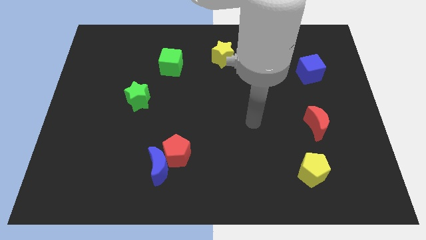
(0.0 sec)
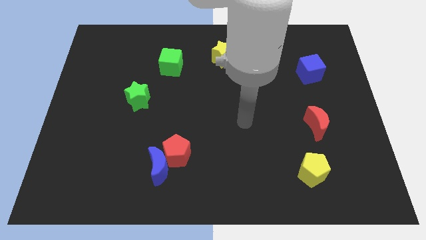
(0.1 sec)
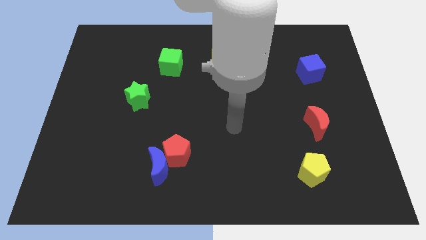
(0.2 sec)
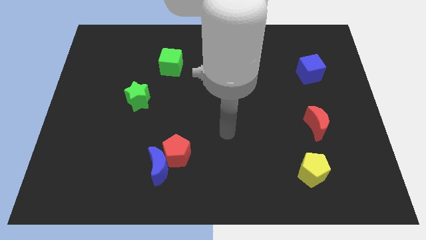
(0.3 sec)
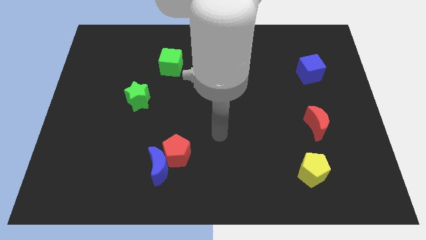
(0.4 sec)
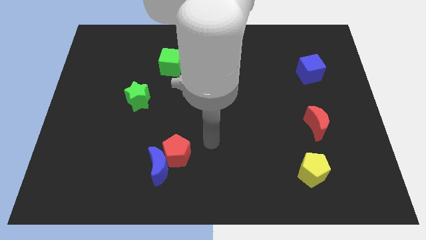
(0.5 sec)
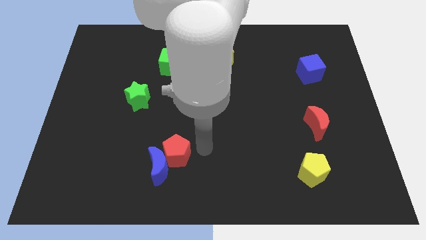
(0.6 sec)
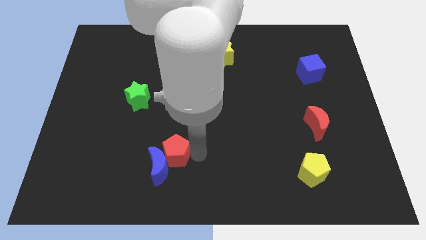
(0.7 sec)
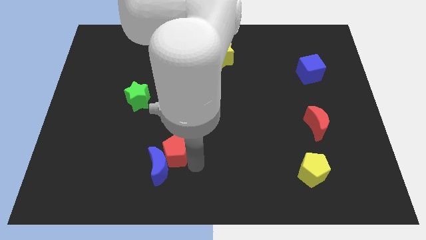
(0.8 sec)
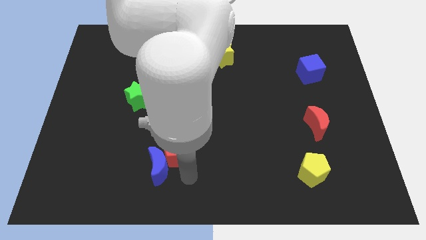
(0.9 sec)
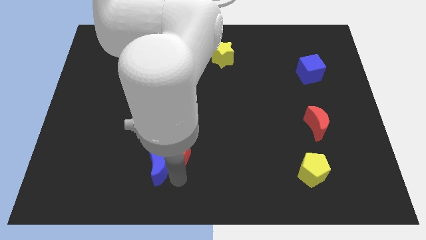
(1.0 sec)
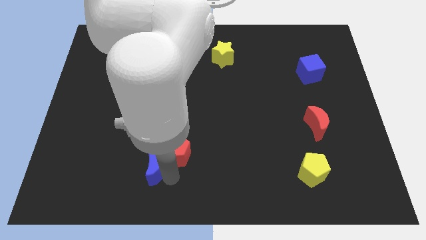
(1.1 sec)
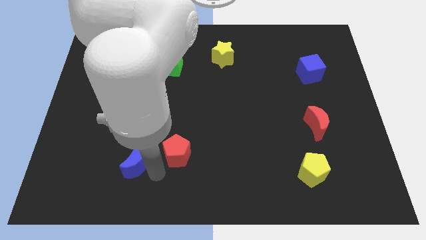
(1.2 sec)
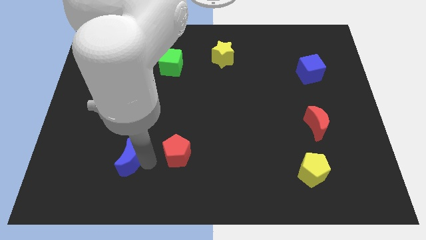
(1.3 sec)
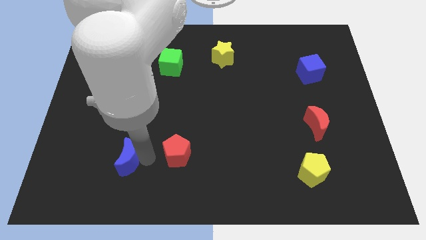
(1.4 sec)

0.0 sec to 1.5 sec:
pull the red pentagon apart from the blue moon

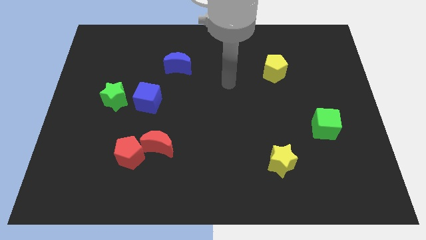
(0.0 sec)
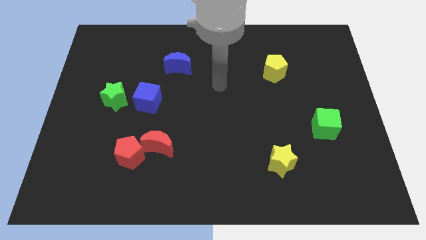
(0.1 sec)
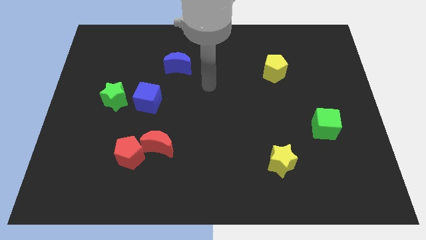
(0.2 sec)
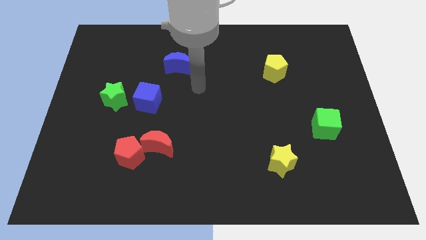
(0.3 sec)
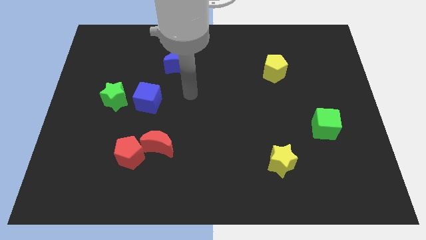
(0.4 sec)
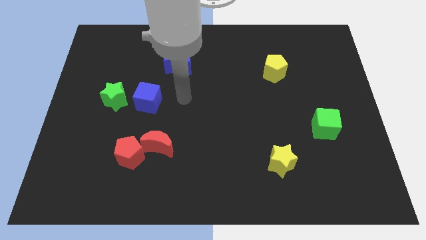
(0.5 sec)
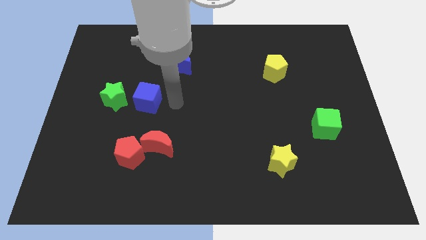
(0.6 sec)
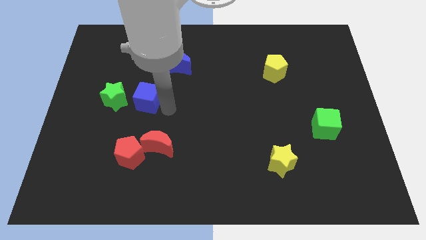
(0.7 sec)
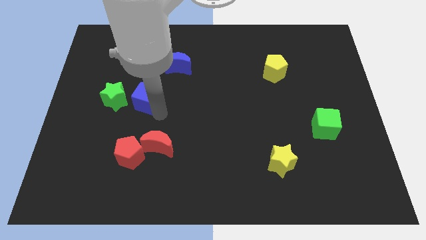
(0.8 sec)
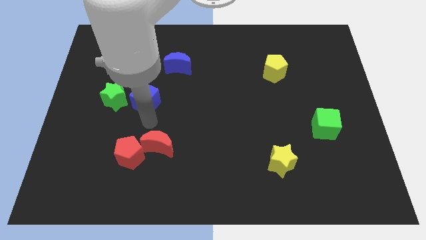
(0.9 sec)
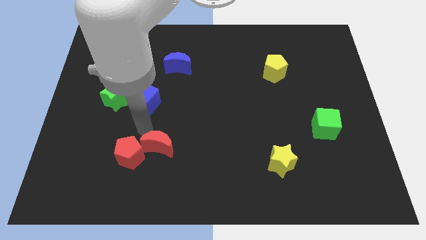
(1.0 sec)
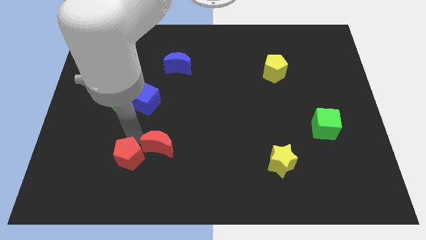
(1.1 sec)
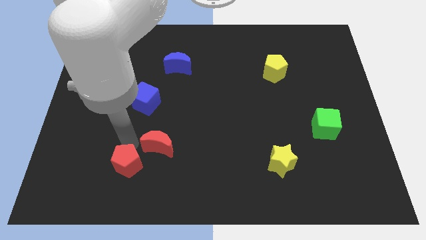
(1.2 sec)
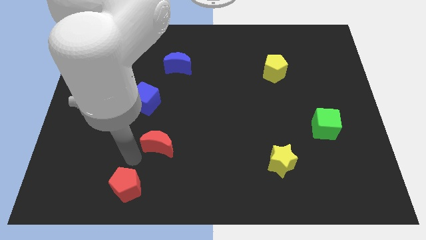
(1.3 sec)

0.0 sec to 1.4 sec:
move the red moon away from the red pentagon

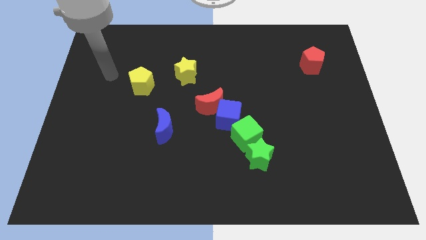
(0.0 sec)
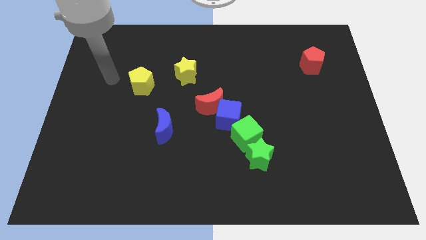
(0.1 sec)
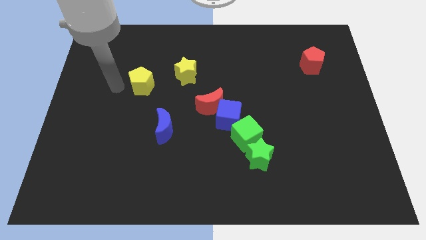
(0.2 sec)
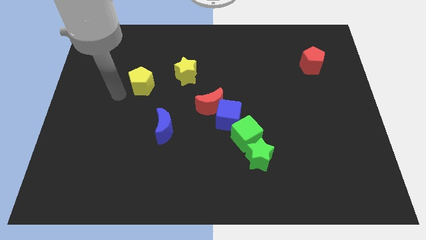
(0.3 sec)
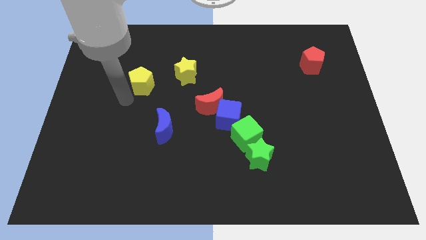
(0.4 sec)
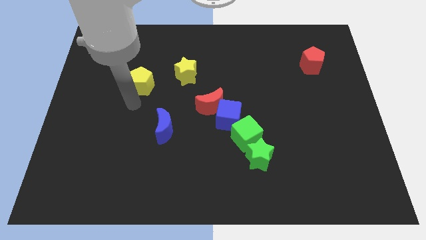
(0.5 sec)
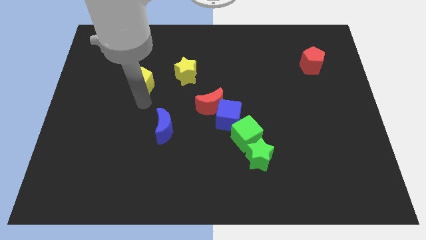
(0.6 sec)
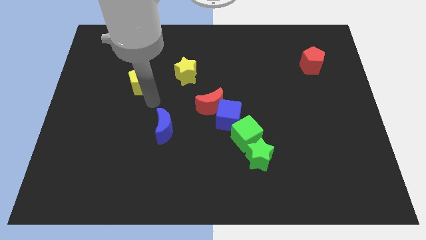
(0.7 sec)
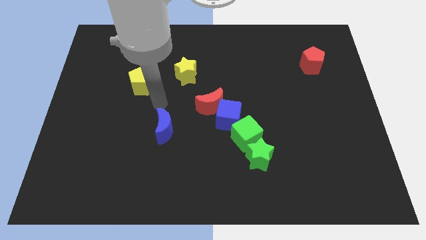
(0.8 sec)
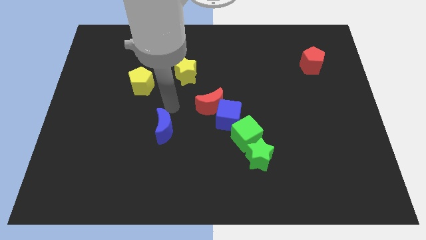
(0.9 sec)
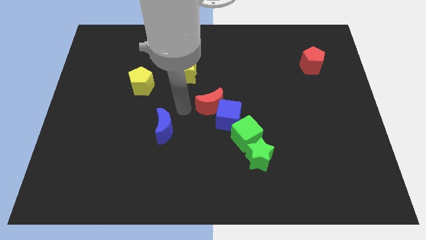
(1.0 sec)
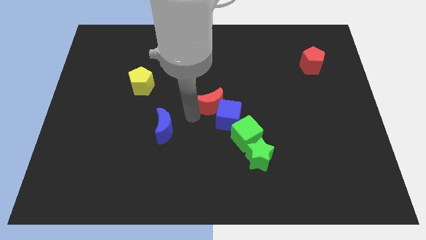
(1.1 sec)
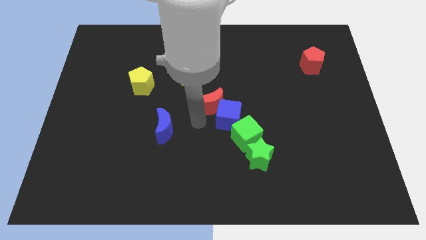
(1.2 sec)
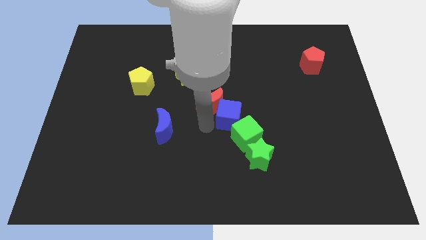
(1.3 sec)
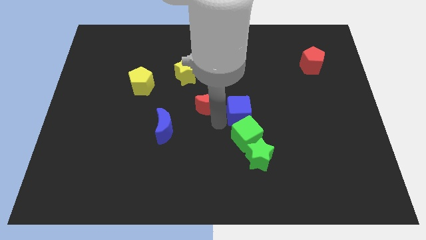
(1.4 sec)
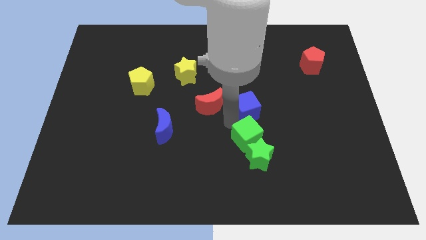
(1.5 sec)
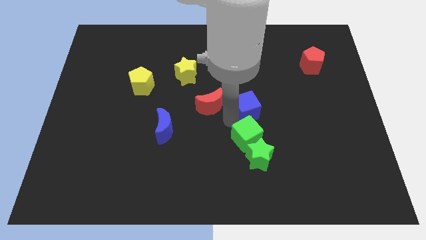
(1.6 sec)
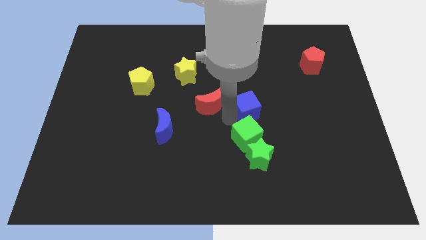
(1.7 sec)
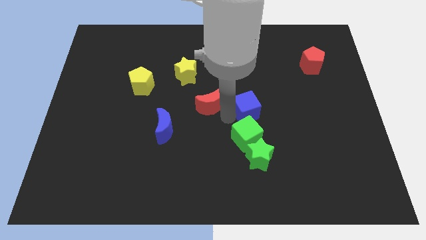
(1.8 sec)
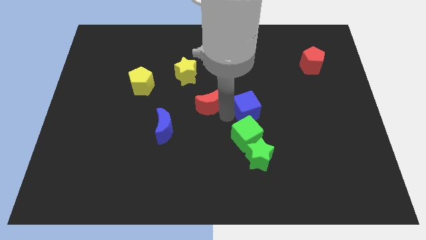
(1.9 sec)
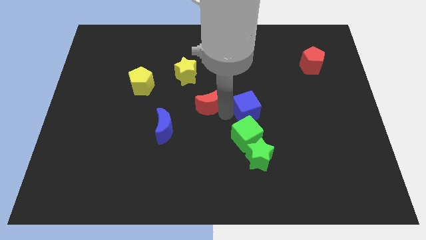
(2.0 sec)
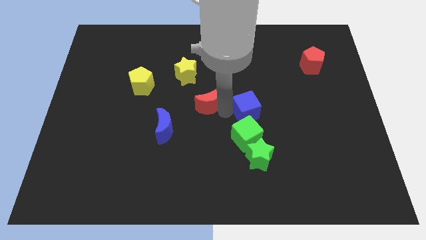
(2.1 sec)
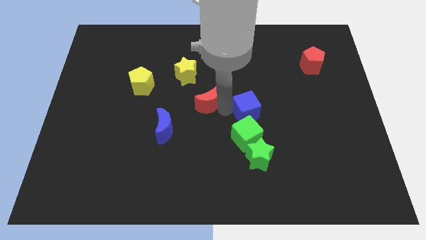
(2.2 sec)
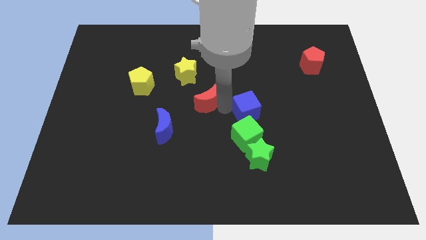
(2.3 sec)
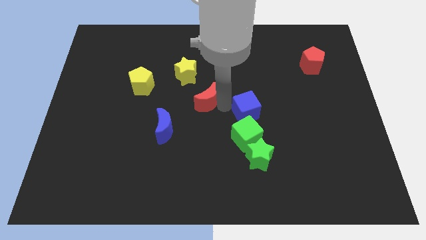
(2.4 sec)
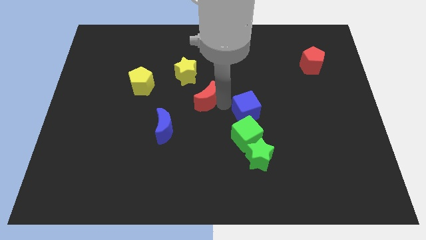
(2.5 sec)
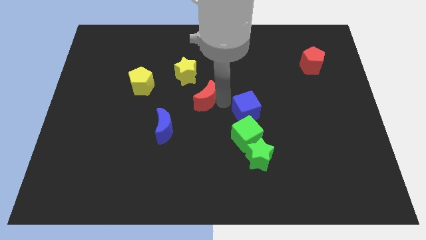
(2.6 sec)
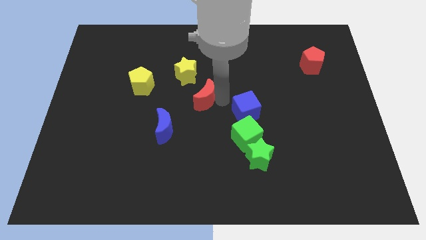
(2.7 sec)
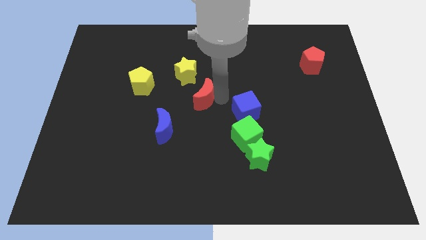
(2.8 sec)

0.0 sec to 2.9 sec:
move the red moon away from the blue cube

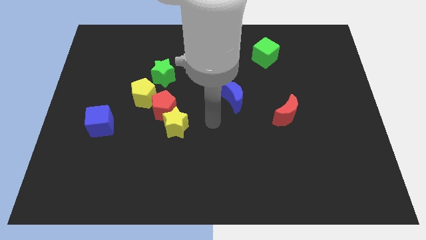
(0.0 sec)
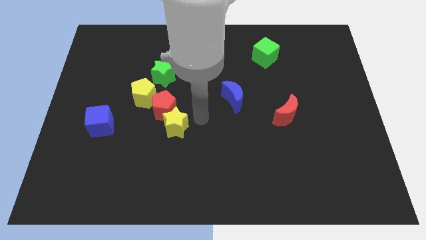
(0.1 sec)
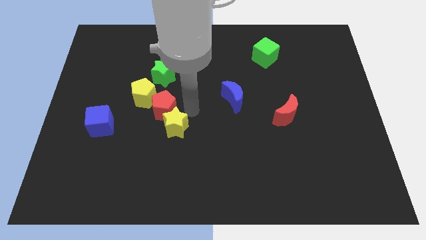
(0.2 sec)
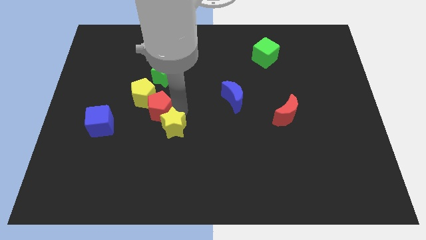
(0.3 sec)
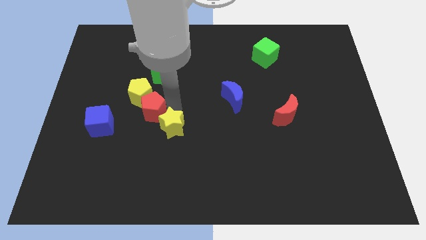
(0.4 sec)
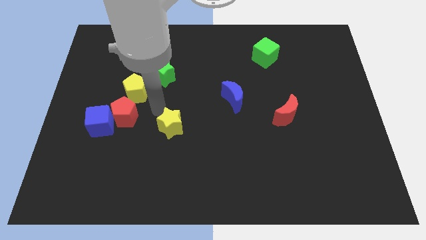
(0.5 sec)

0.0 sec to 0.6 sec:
pull the yellow star apart from the red pentagon

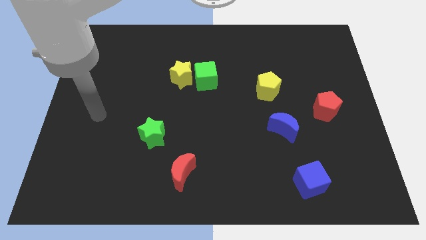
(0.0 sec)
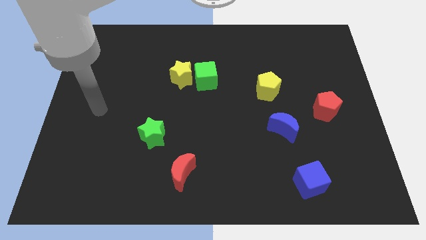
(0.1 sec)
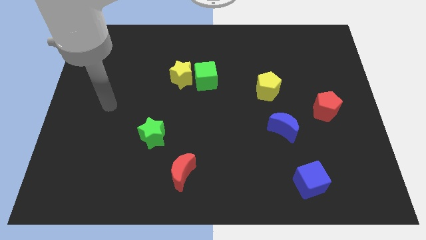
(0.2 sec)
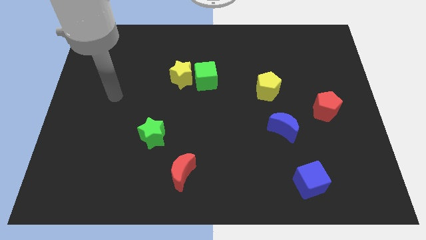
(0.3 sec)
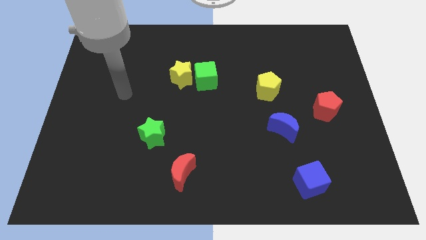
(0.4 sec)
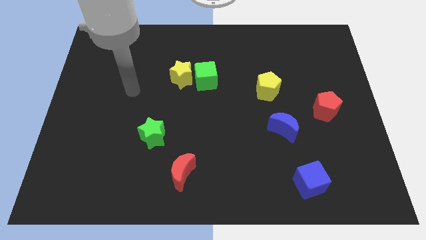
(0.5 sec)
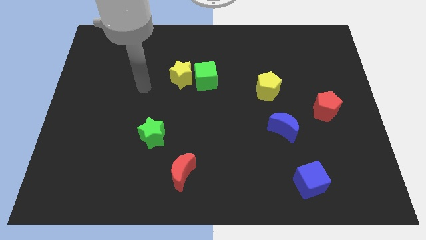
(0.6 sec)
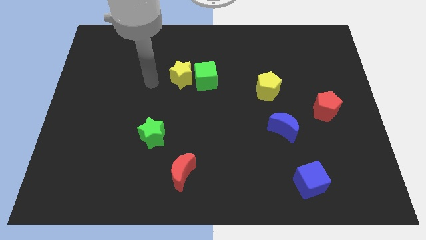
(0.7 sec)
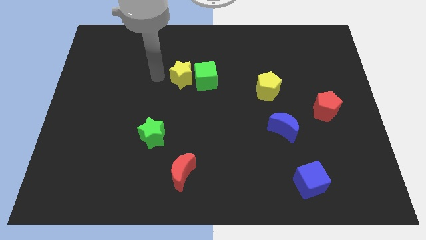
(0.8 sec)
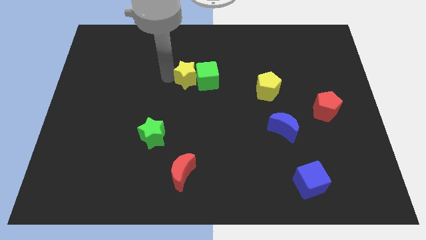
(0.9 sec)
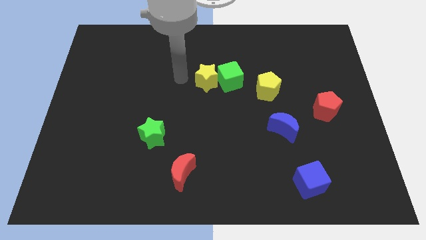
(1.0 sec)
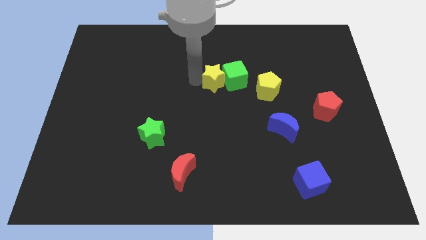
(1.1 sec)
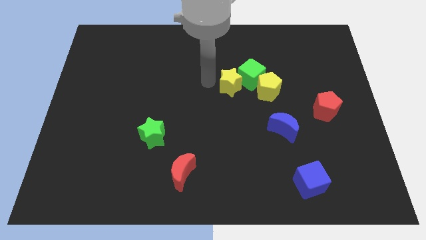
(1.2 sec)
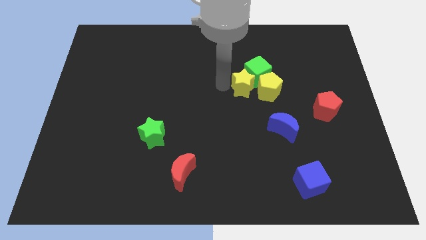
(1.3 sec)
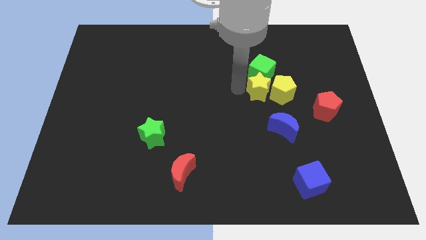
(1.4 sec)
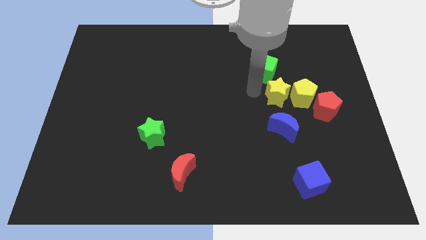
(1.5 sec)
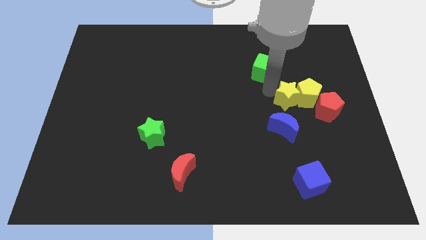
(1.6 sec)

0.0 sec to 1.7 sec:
pull the green cube apart from the yellow star

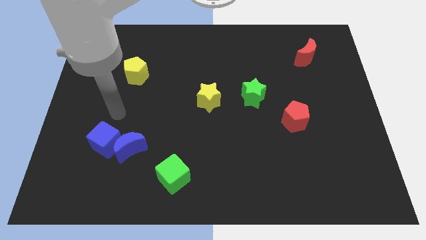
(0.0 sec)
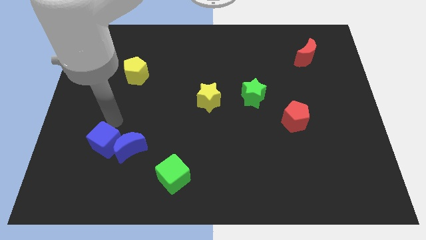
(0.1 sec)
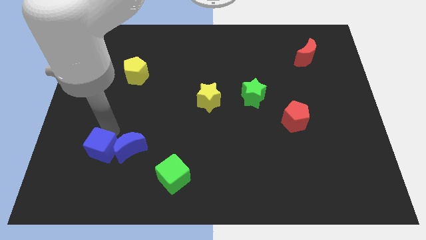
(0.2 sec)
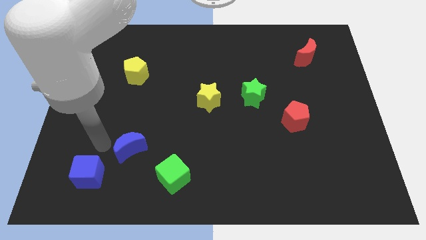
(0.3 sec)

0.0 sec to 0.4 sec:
separate the blue moon from the blue cube

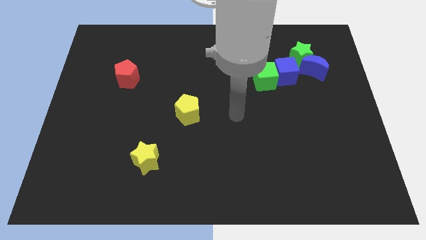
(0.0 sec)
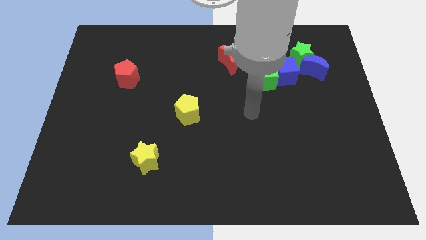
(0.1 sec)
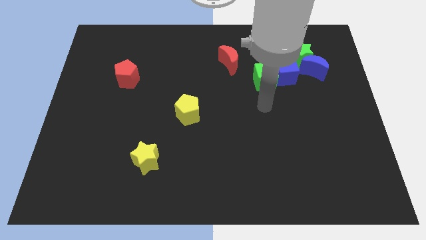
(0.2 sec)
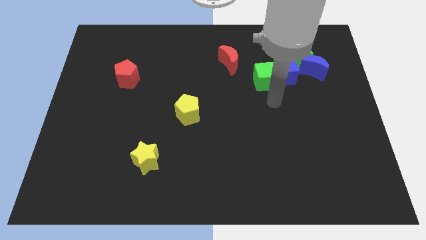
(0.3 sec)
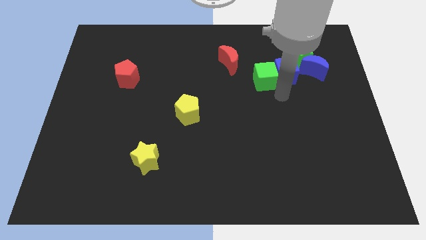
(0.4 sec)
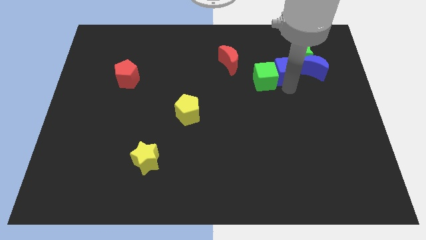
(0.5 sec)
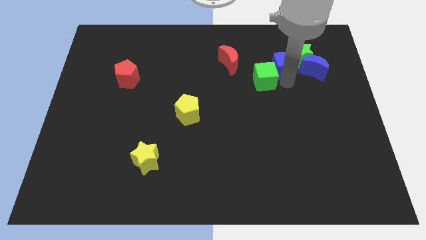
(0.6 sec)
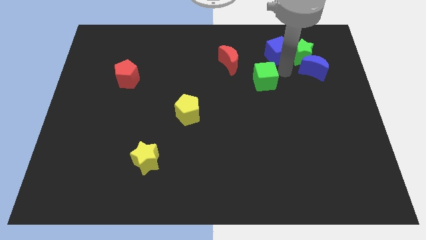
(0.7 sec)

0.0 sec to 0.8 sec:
separate the green cube from the blue cube
